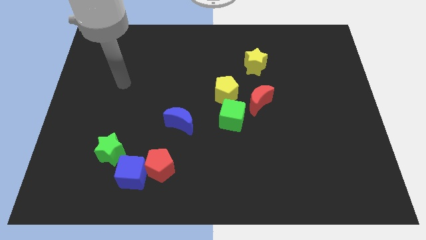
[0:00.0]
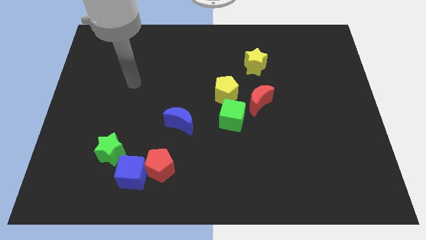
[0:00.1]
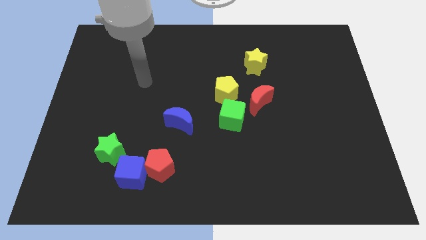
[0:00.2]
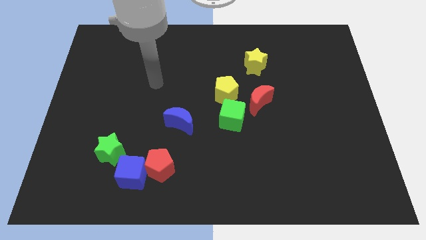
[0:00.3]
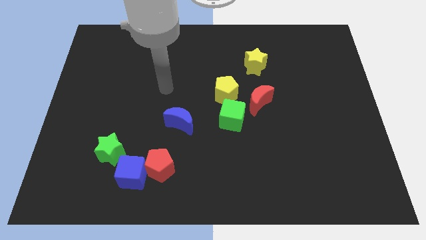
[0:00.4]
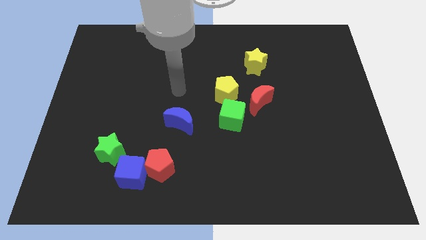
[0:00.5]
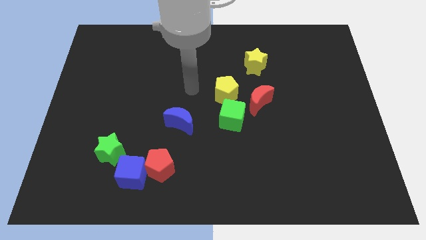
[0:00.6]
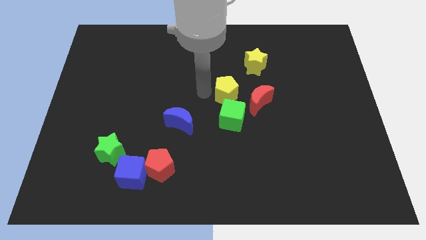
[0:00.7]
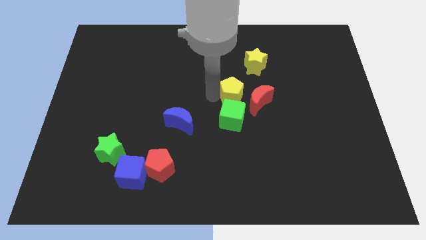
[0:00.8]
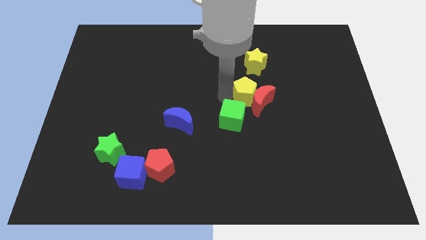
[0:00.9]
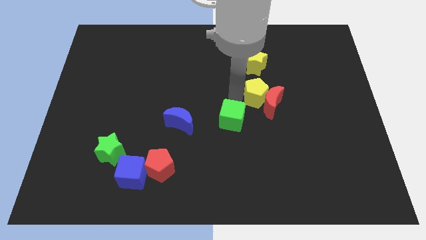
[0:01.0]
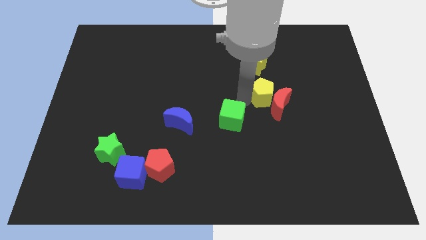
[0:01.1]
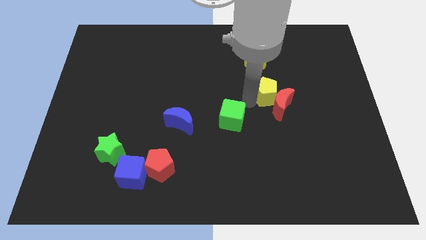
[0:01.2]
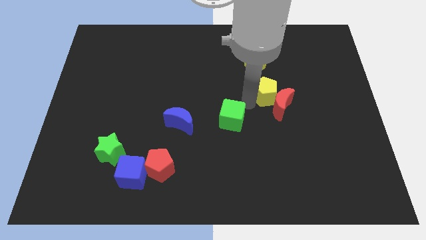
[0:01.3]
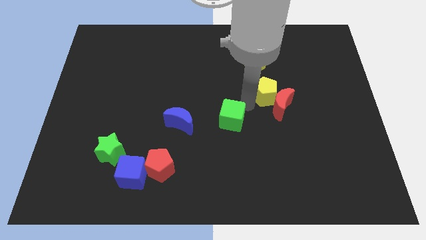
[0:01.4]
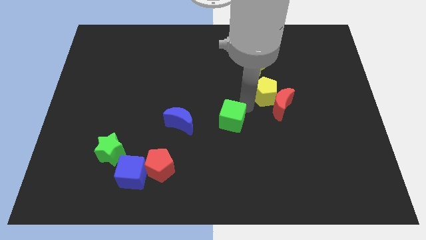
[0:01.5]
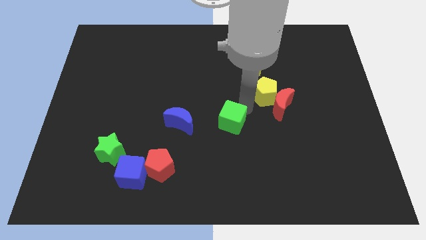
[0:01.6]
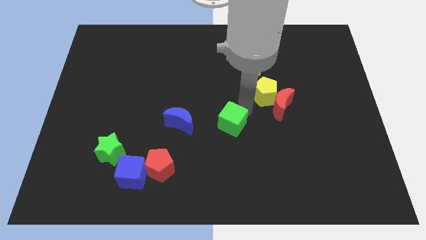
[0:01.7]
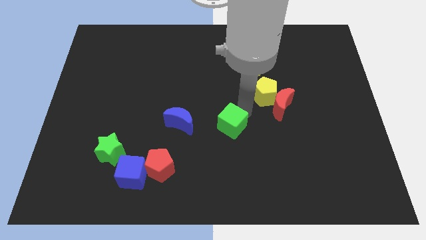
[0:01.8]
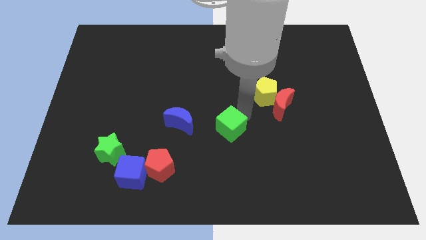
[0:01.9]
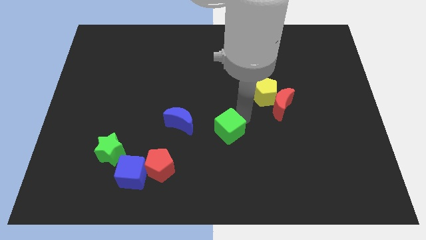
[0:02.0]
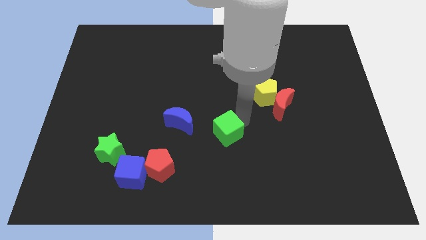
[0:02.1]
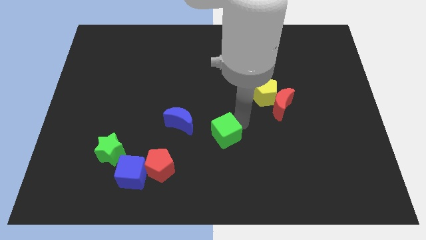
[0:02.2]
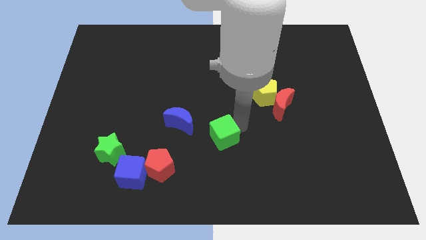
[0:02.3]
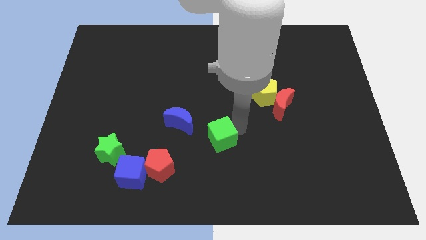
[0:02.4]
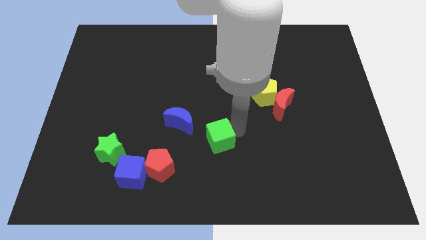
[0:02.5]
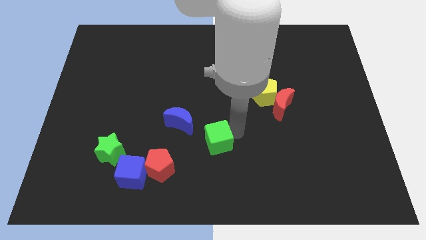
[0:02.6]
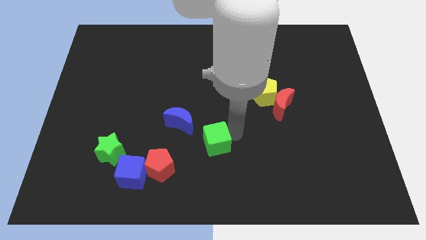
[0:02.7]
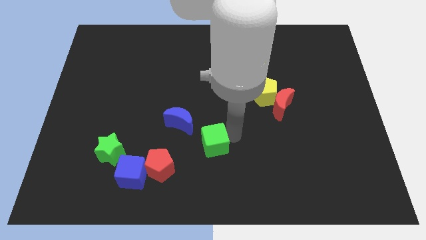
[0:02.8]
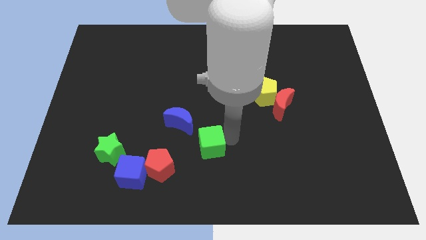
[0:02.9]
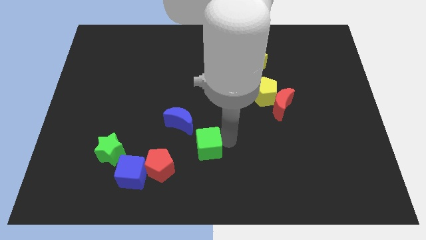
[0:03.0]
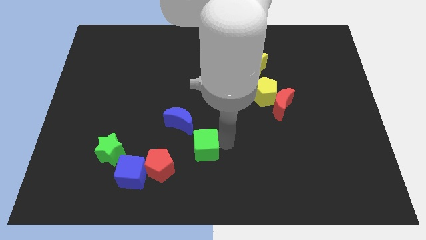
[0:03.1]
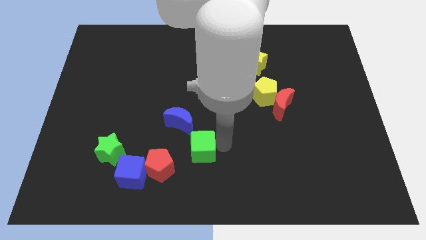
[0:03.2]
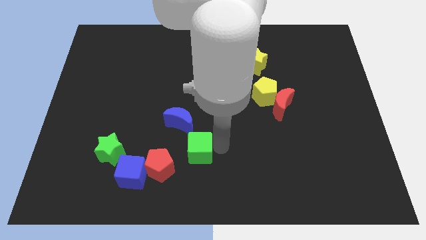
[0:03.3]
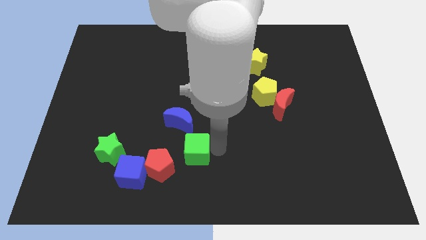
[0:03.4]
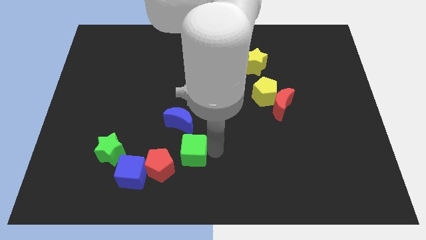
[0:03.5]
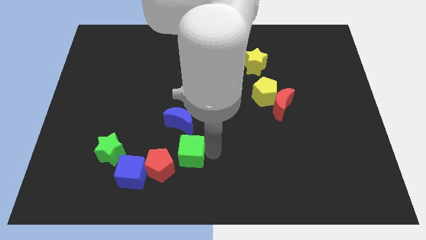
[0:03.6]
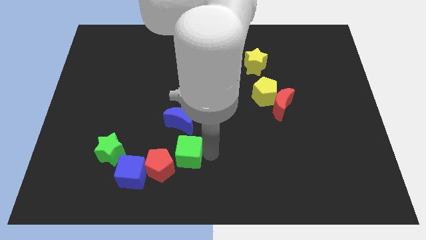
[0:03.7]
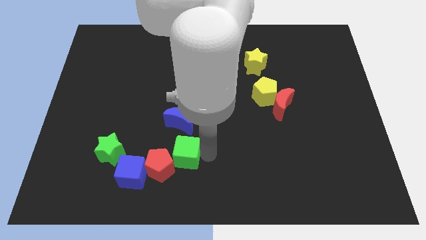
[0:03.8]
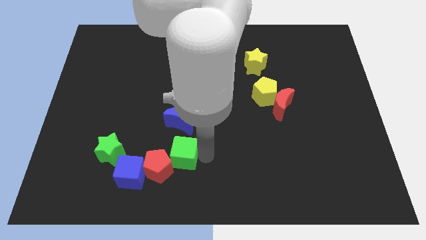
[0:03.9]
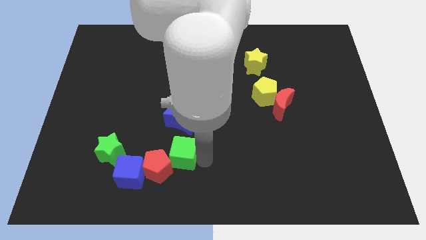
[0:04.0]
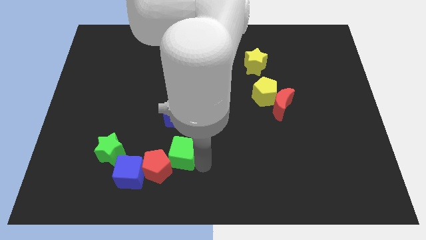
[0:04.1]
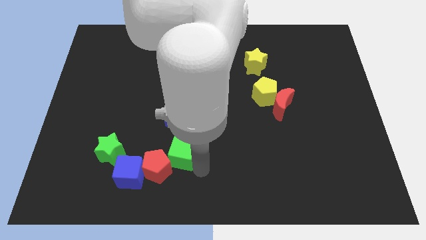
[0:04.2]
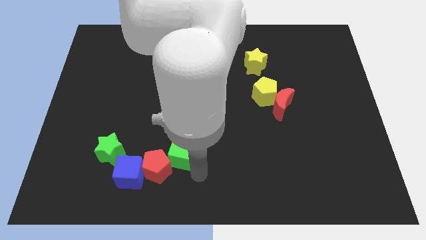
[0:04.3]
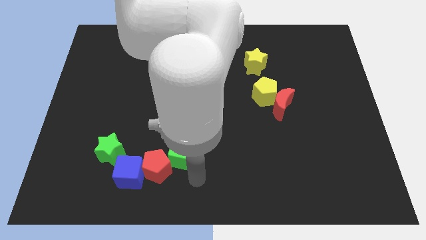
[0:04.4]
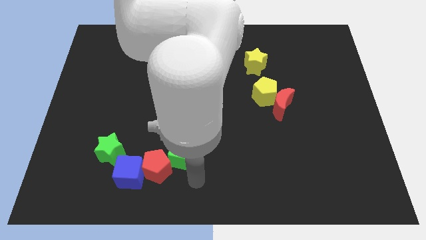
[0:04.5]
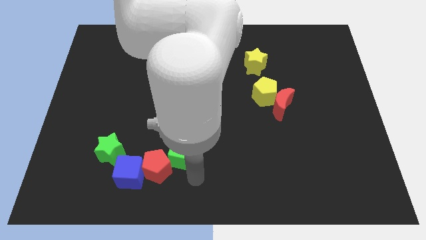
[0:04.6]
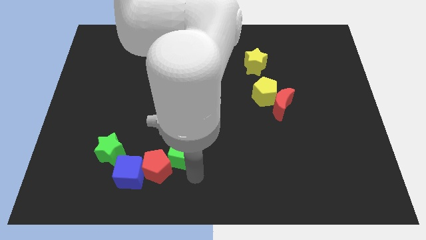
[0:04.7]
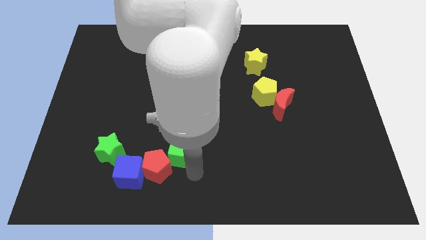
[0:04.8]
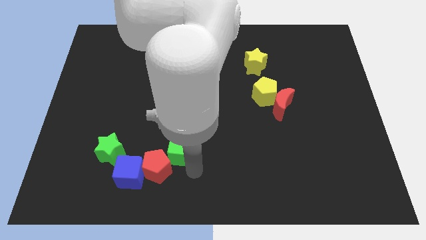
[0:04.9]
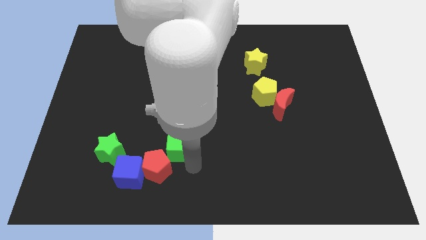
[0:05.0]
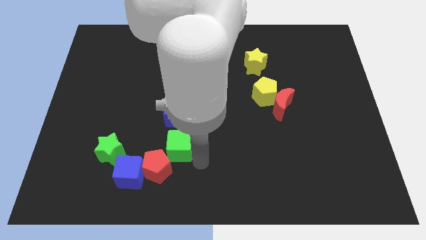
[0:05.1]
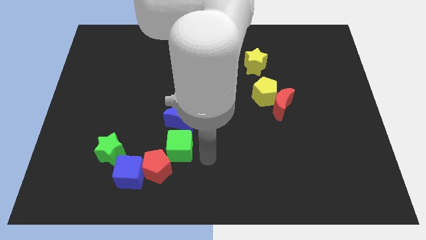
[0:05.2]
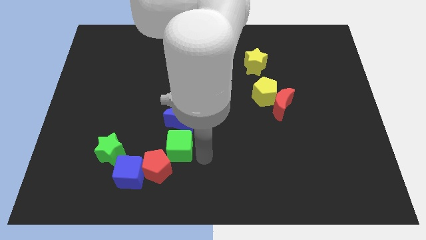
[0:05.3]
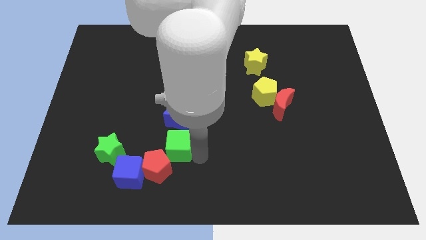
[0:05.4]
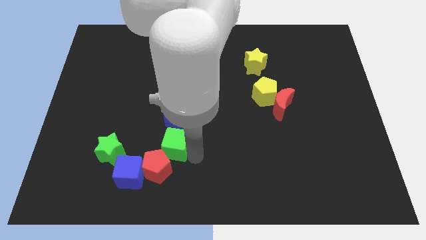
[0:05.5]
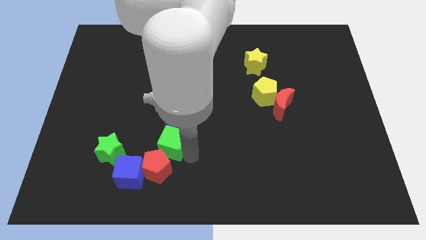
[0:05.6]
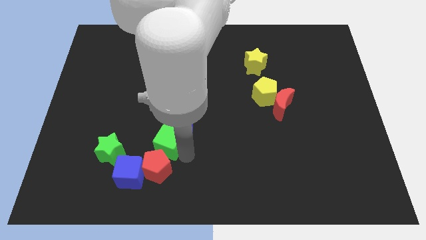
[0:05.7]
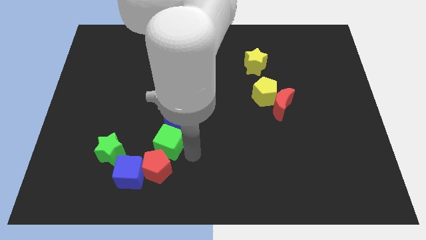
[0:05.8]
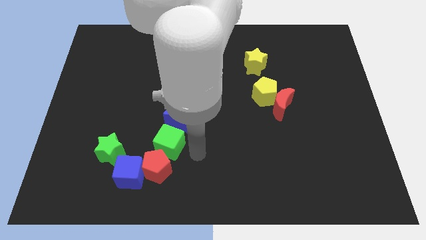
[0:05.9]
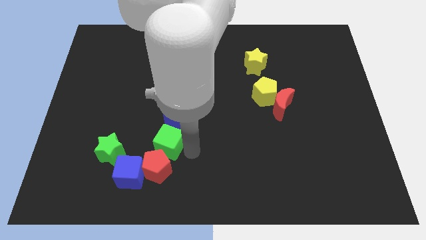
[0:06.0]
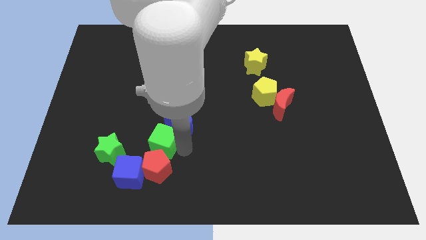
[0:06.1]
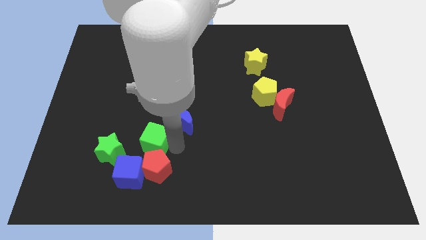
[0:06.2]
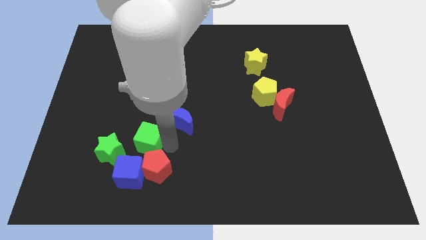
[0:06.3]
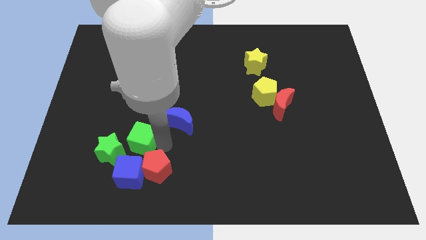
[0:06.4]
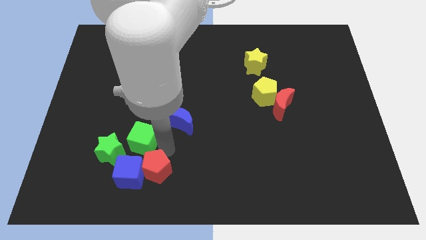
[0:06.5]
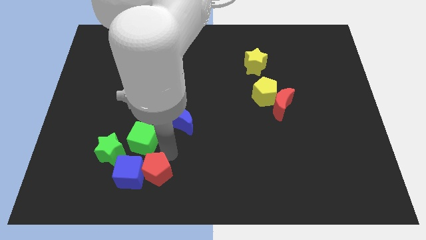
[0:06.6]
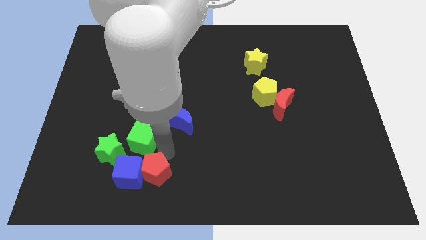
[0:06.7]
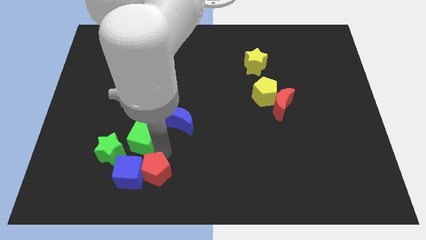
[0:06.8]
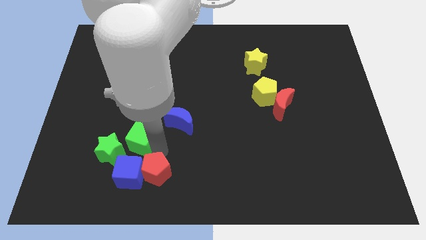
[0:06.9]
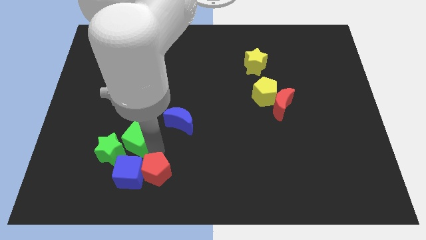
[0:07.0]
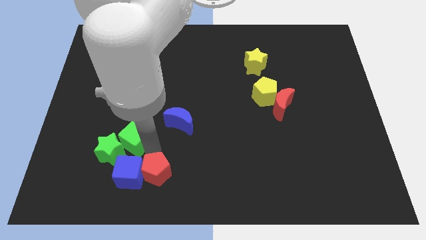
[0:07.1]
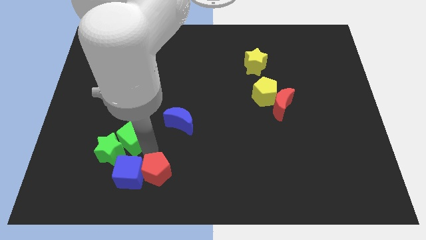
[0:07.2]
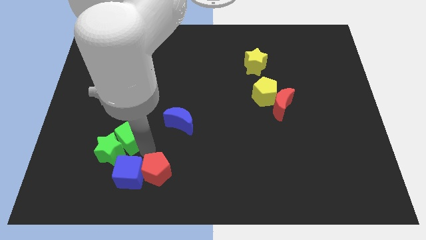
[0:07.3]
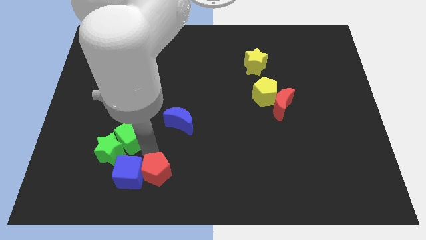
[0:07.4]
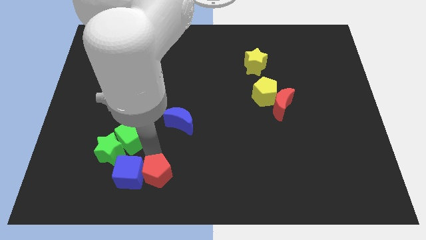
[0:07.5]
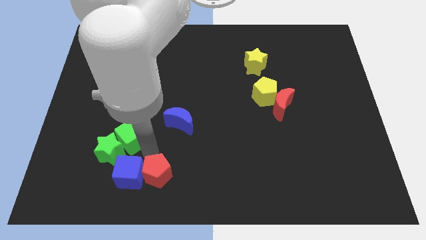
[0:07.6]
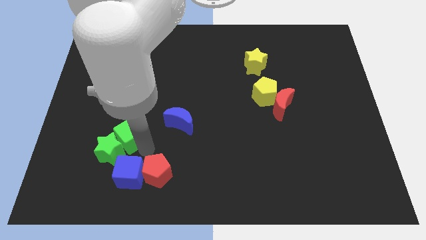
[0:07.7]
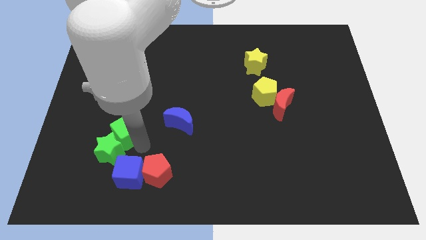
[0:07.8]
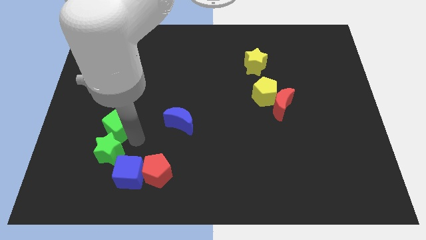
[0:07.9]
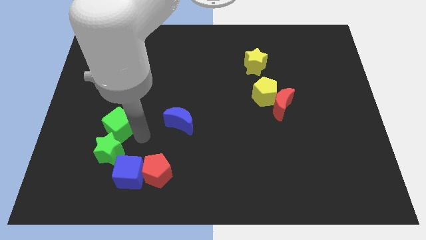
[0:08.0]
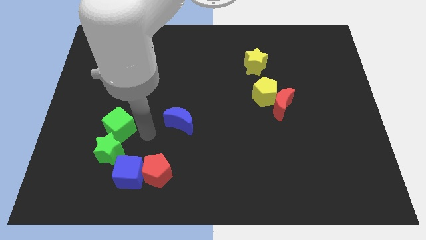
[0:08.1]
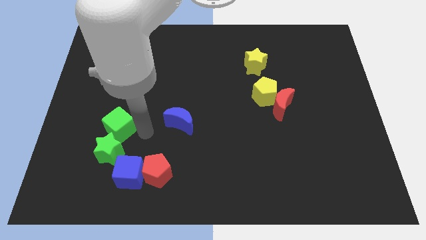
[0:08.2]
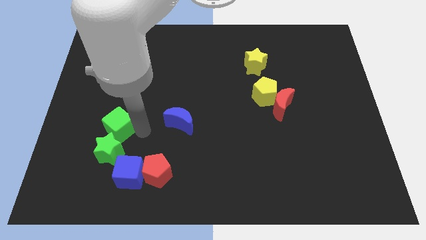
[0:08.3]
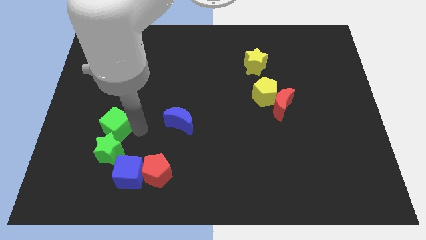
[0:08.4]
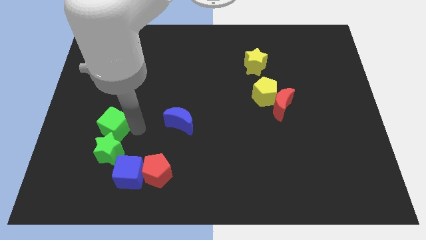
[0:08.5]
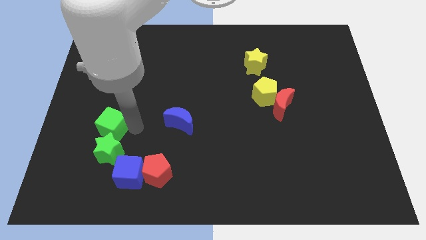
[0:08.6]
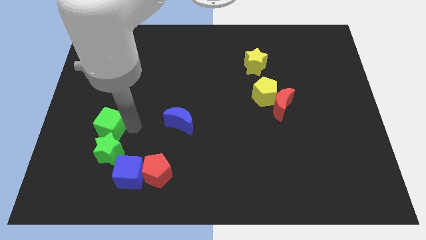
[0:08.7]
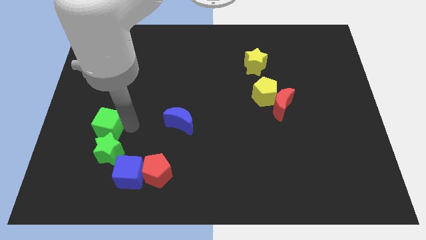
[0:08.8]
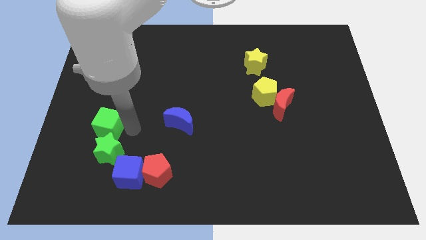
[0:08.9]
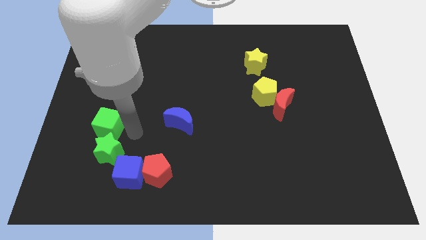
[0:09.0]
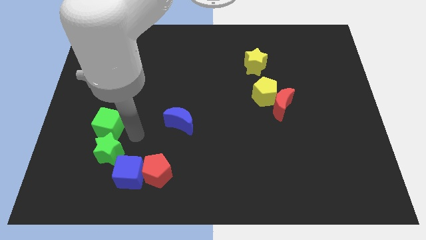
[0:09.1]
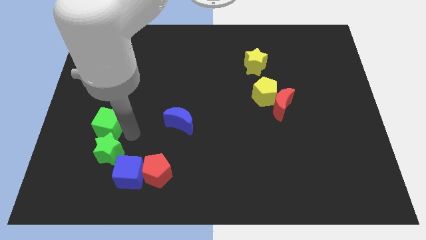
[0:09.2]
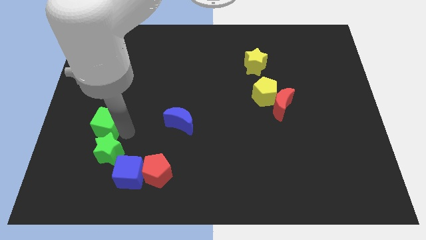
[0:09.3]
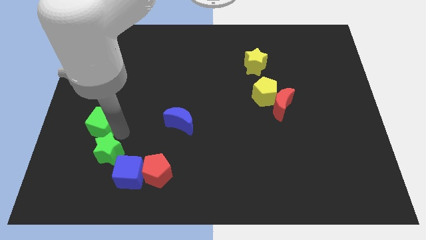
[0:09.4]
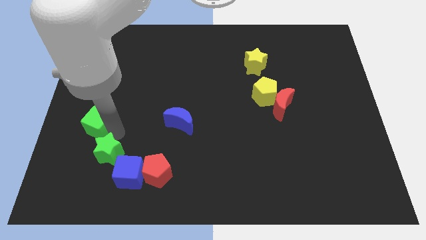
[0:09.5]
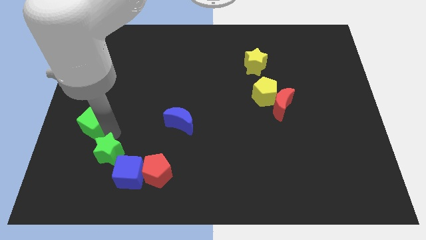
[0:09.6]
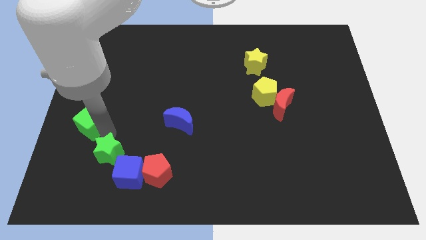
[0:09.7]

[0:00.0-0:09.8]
push the green cube to the left side
